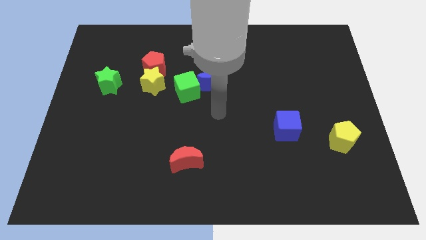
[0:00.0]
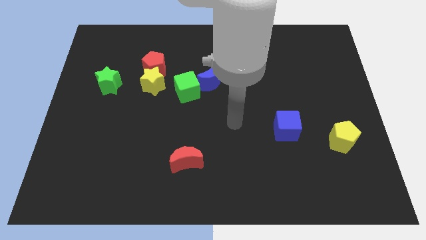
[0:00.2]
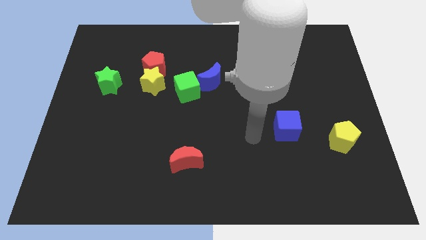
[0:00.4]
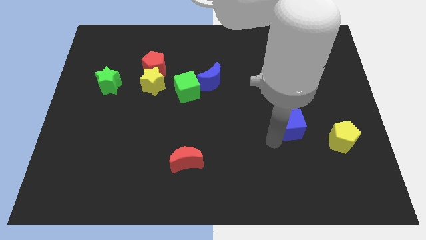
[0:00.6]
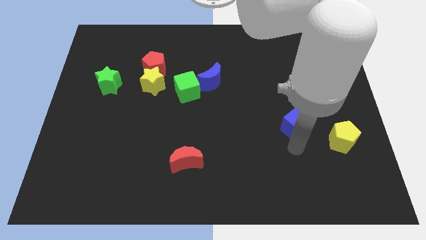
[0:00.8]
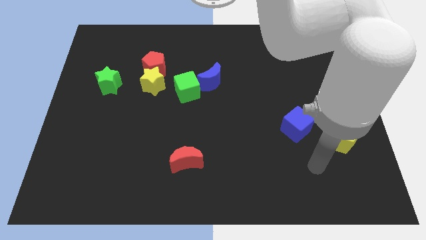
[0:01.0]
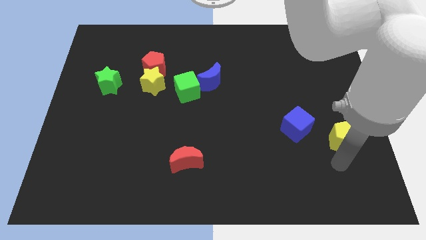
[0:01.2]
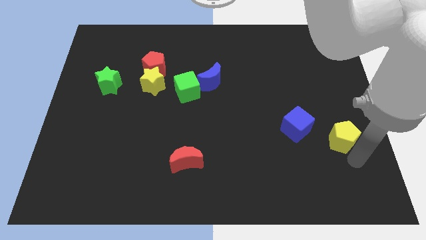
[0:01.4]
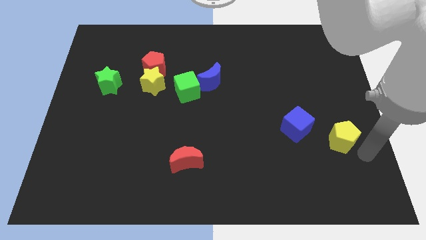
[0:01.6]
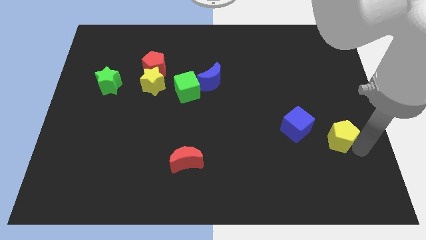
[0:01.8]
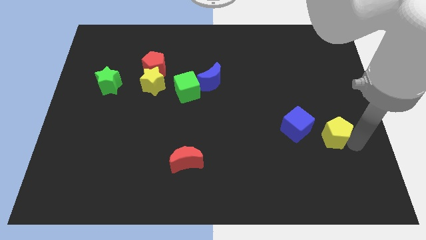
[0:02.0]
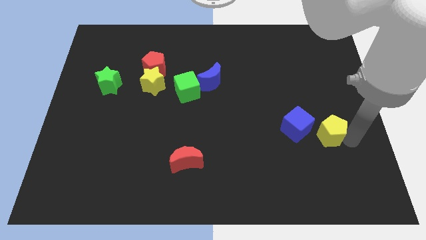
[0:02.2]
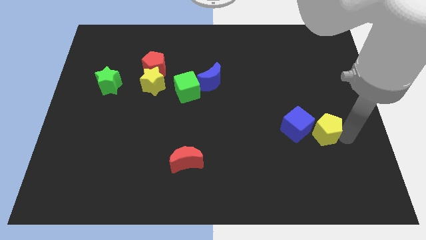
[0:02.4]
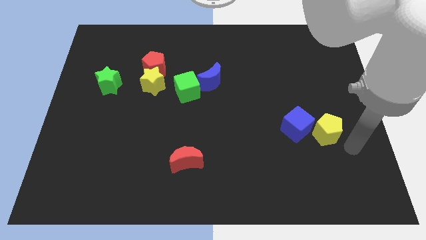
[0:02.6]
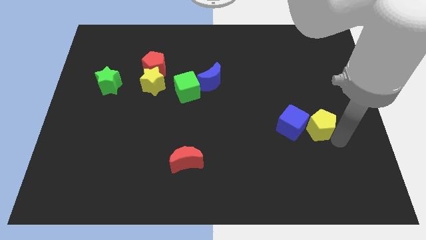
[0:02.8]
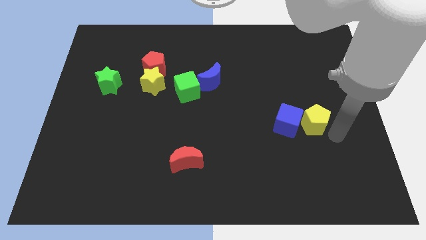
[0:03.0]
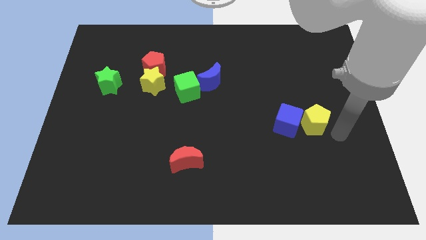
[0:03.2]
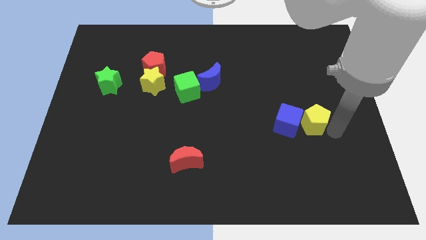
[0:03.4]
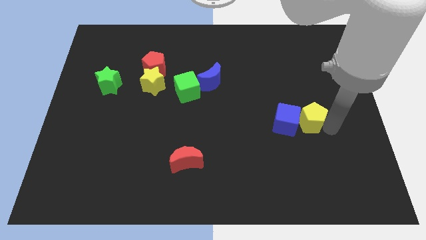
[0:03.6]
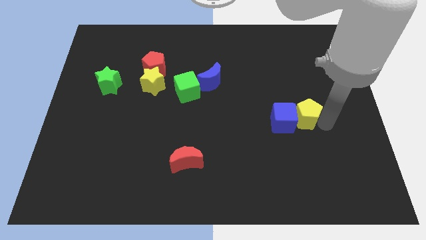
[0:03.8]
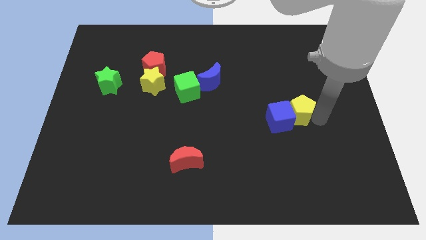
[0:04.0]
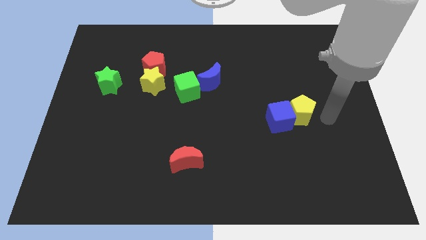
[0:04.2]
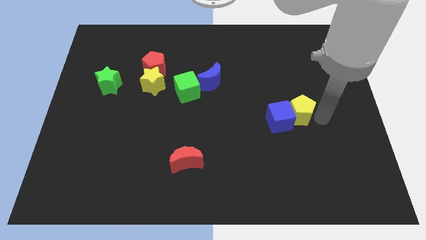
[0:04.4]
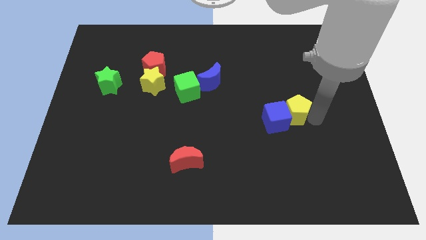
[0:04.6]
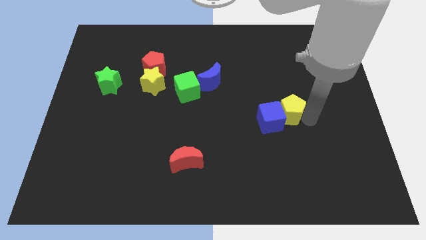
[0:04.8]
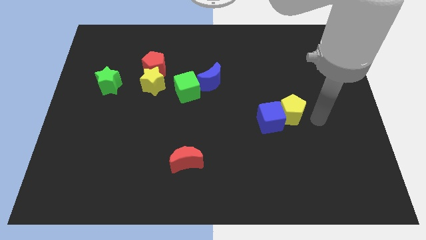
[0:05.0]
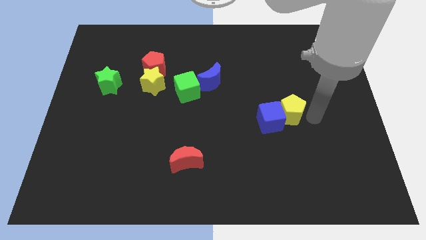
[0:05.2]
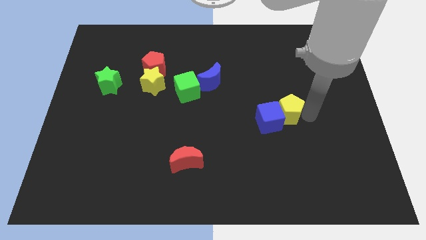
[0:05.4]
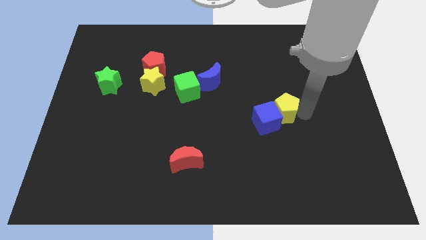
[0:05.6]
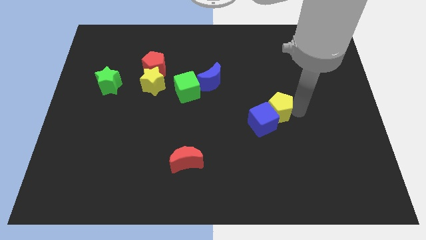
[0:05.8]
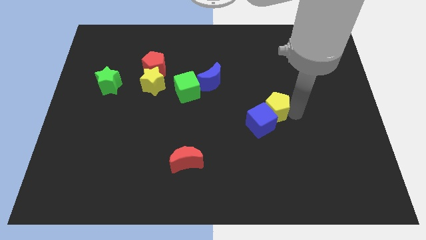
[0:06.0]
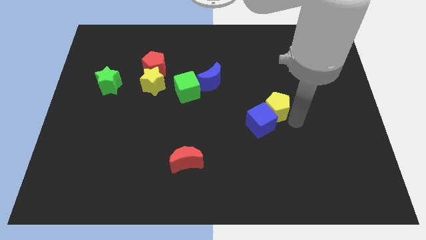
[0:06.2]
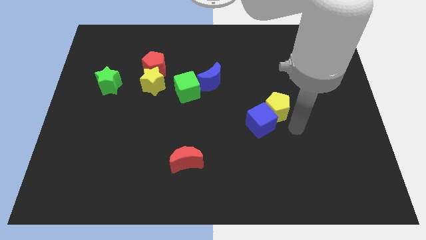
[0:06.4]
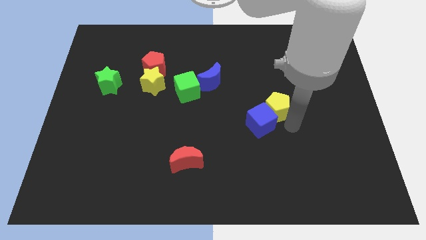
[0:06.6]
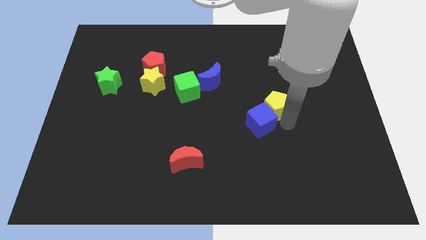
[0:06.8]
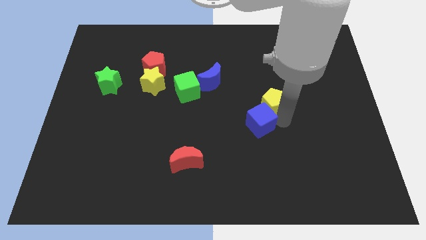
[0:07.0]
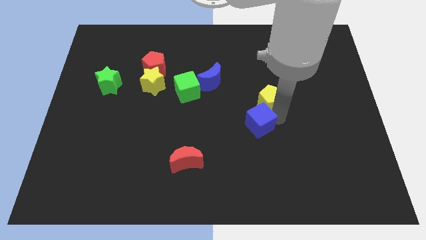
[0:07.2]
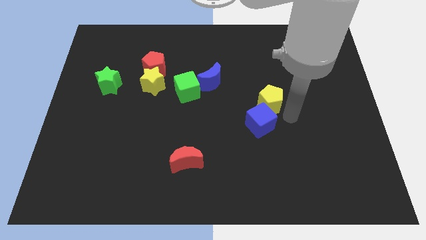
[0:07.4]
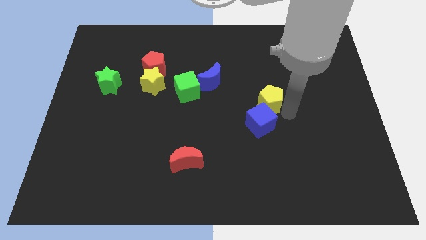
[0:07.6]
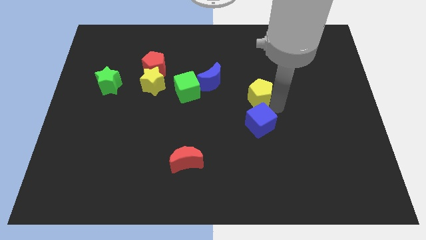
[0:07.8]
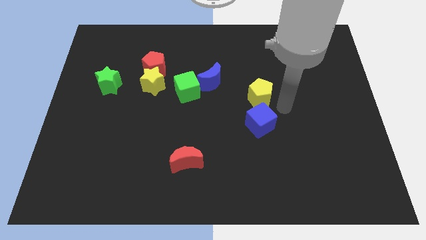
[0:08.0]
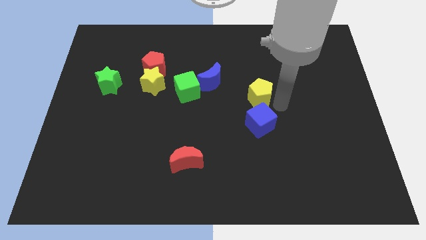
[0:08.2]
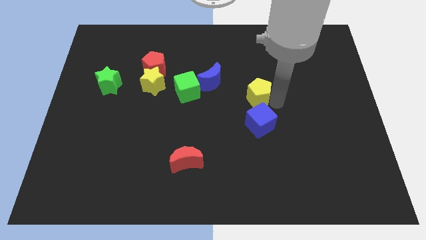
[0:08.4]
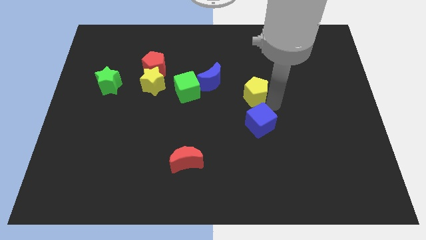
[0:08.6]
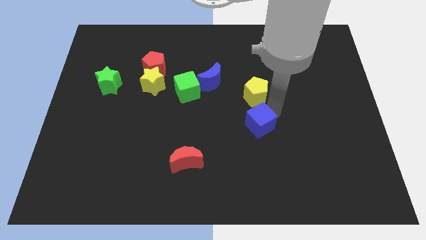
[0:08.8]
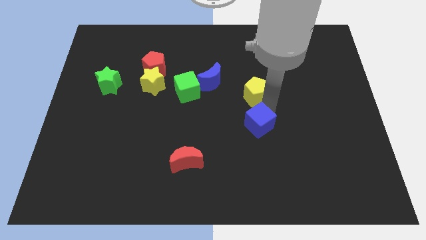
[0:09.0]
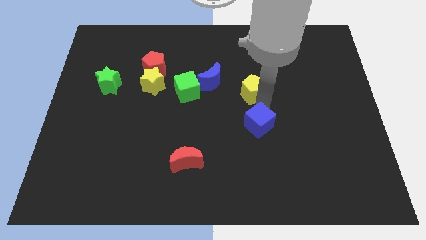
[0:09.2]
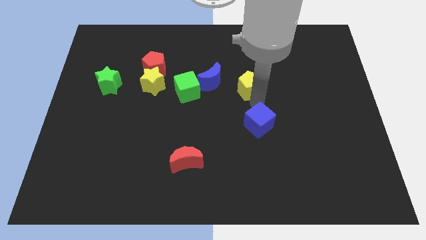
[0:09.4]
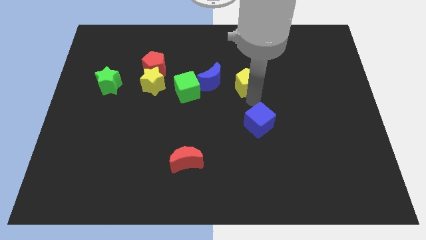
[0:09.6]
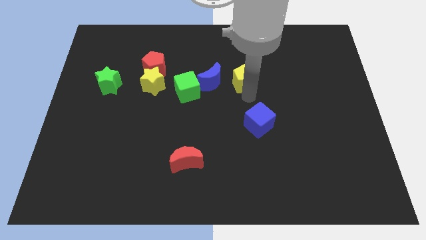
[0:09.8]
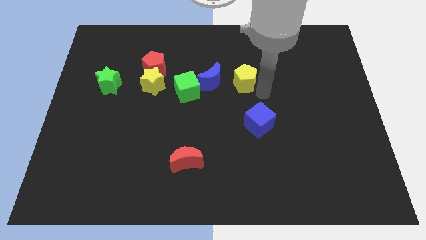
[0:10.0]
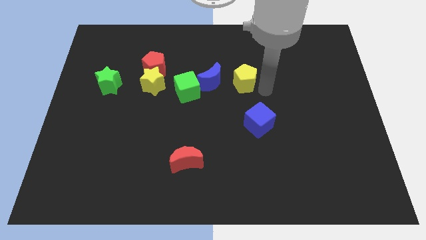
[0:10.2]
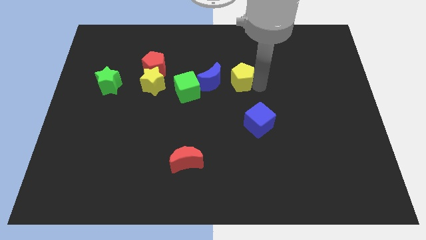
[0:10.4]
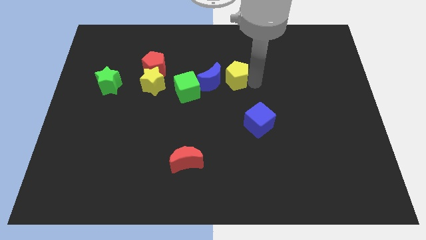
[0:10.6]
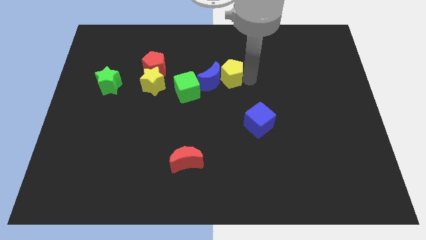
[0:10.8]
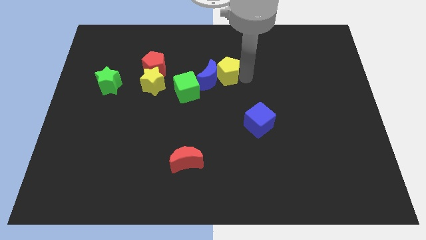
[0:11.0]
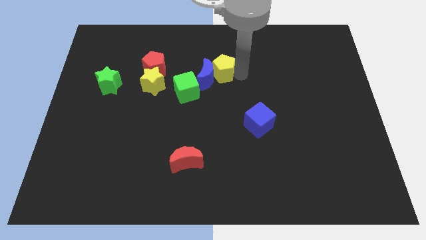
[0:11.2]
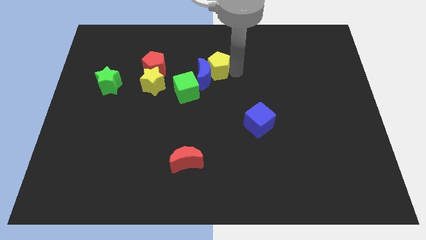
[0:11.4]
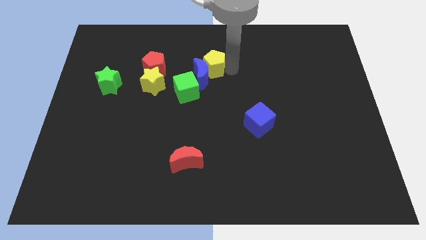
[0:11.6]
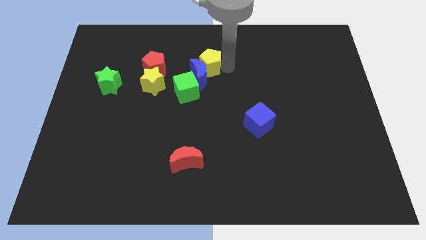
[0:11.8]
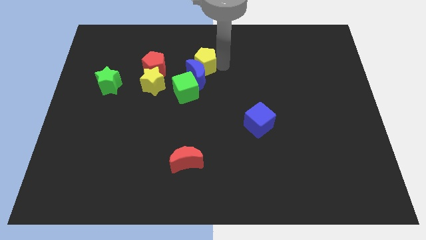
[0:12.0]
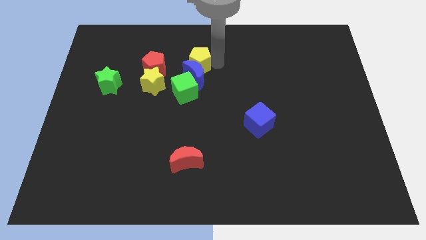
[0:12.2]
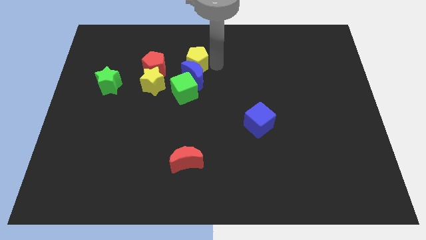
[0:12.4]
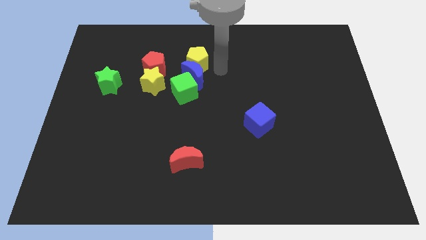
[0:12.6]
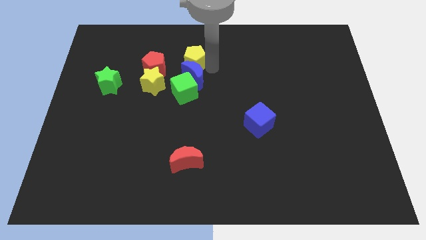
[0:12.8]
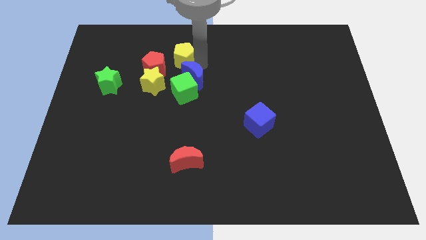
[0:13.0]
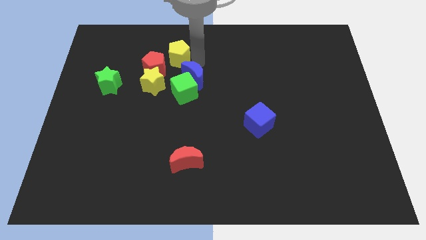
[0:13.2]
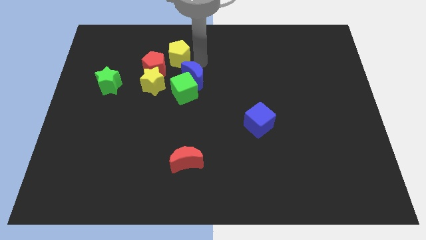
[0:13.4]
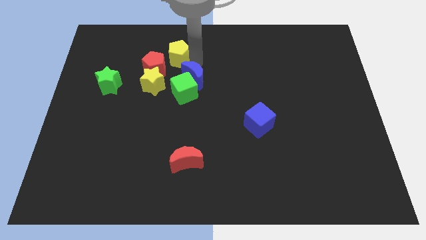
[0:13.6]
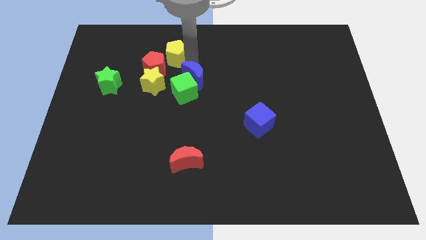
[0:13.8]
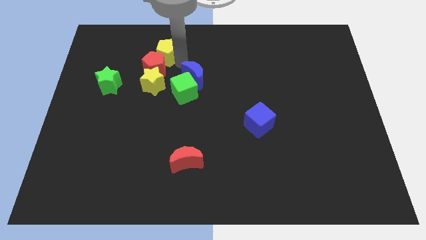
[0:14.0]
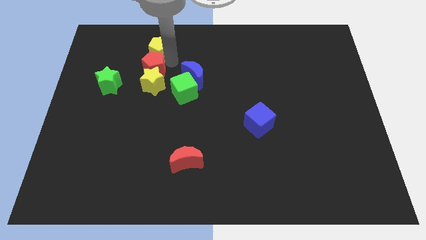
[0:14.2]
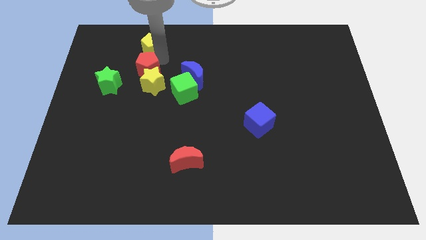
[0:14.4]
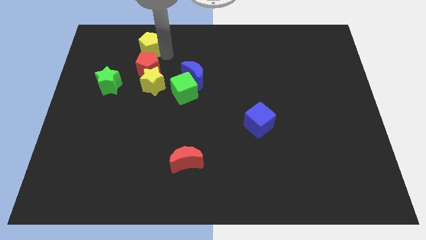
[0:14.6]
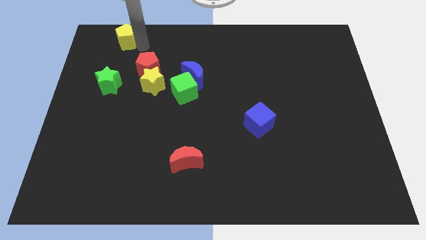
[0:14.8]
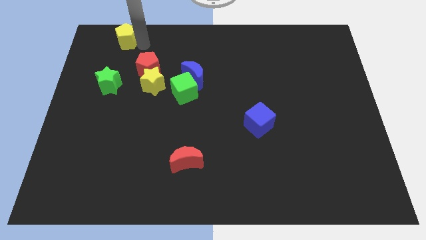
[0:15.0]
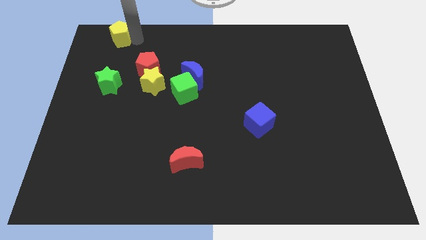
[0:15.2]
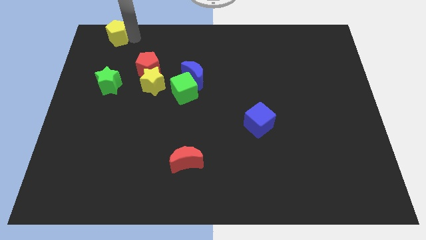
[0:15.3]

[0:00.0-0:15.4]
put the yellow pentagon to the top left
